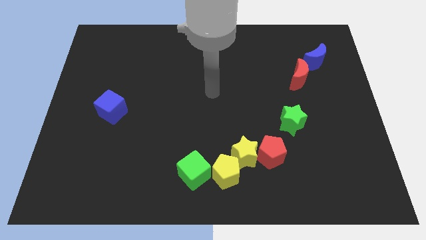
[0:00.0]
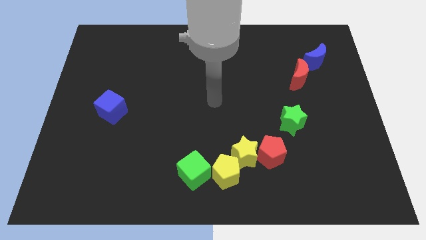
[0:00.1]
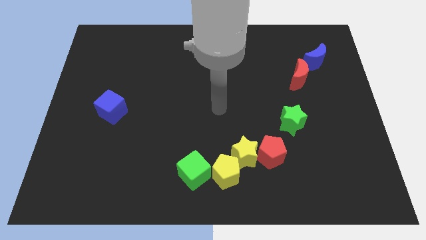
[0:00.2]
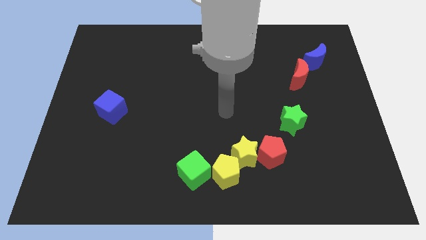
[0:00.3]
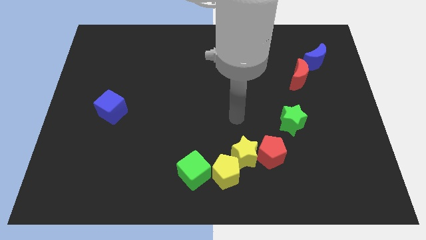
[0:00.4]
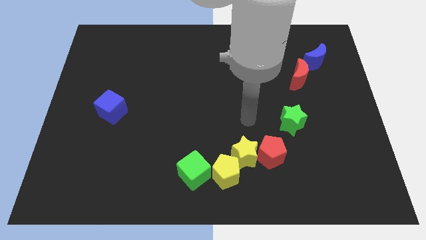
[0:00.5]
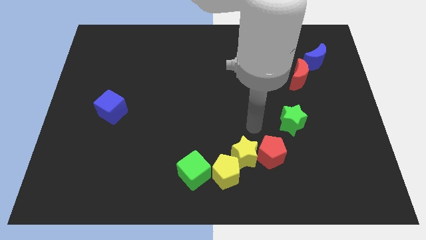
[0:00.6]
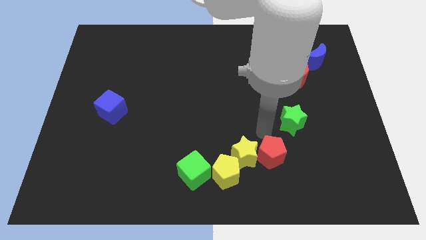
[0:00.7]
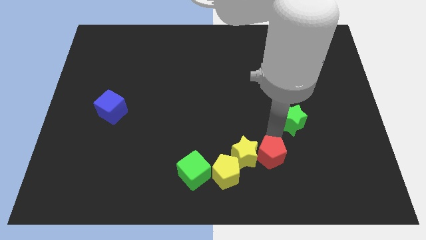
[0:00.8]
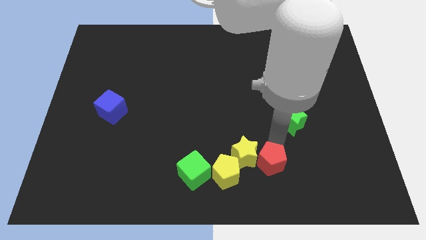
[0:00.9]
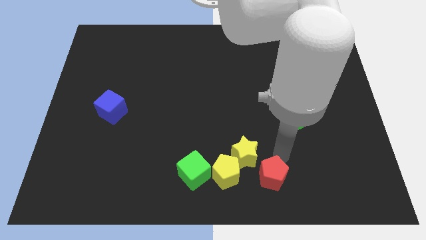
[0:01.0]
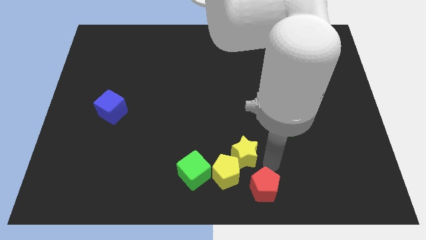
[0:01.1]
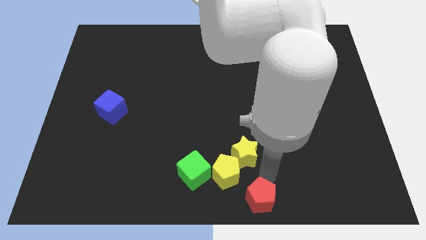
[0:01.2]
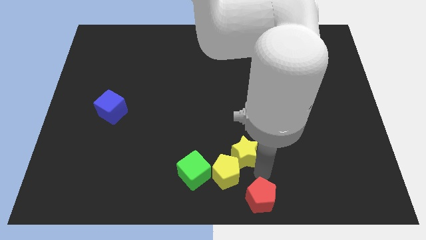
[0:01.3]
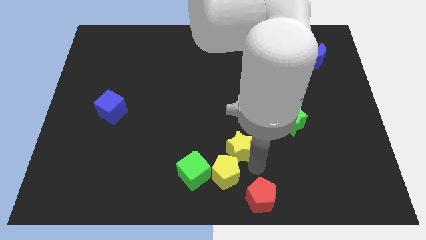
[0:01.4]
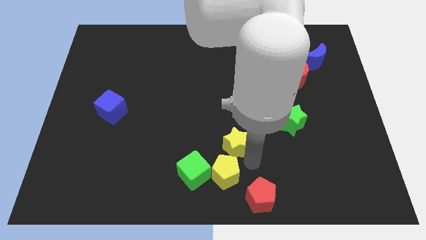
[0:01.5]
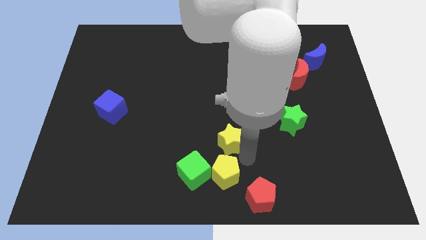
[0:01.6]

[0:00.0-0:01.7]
move the yellow star away from the red pentagon and yellow pentagon

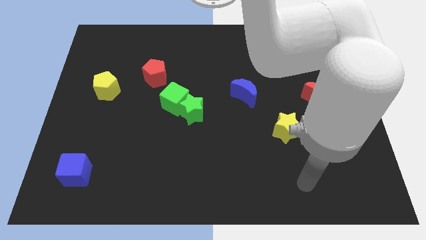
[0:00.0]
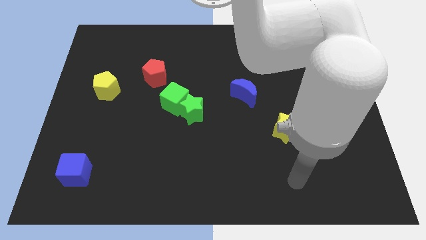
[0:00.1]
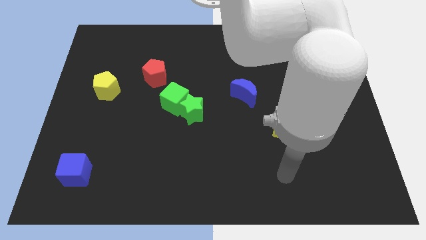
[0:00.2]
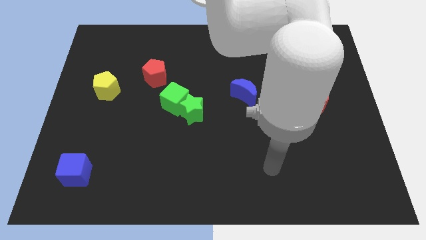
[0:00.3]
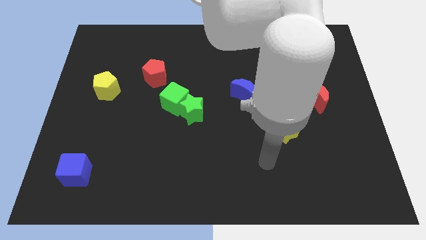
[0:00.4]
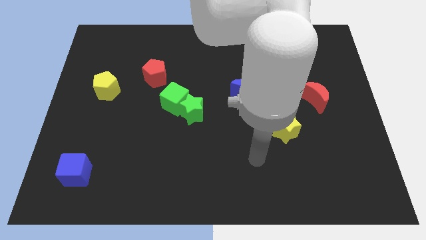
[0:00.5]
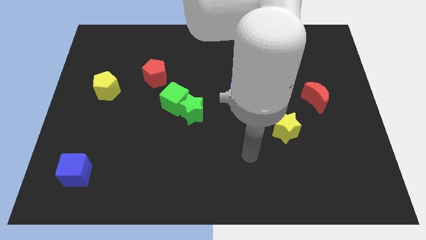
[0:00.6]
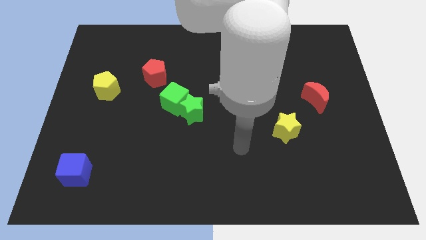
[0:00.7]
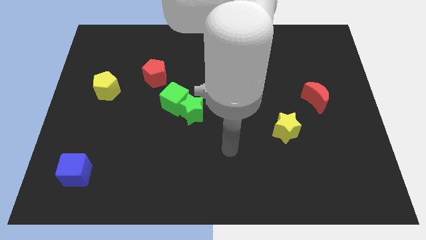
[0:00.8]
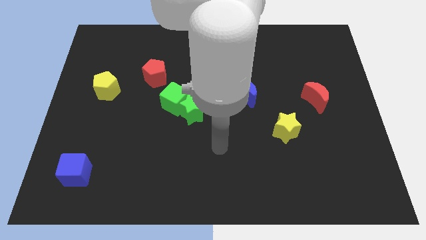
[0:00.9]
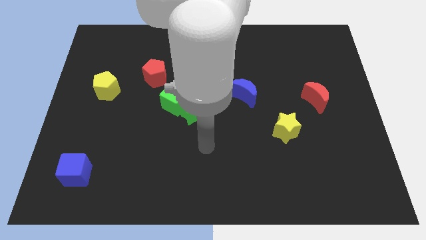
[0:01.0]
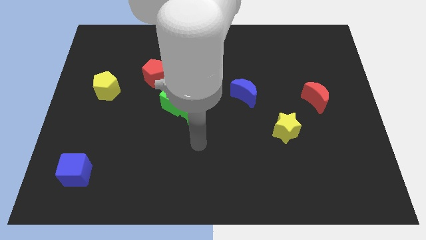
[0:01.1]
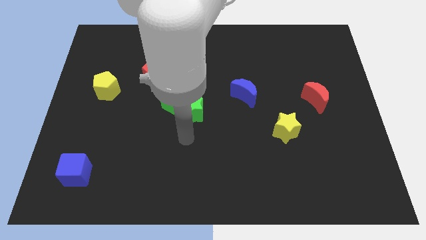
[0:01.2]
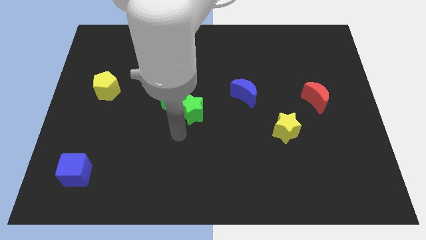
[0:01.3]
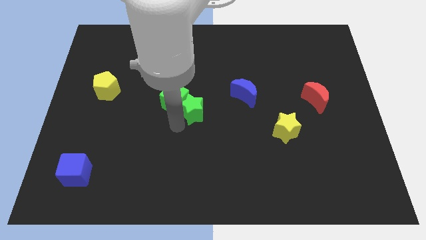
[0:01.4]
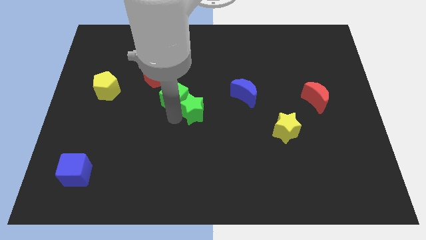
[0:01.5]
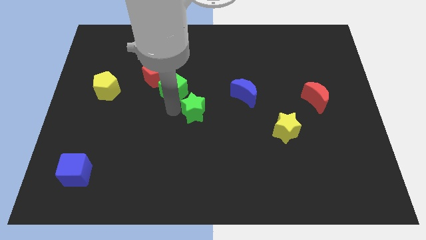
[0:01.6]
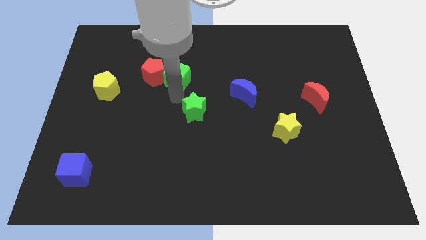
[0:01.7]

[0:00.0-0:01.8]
move the green star away from the green cube

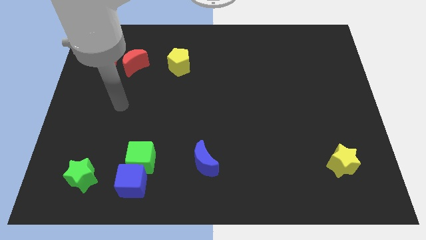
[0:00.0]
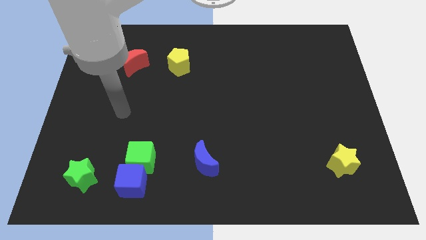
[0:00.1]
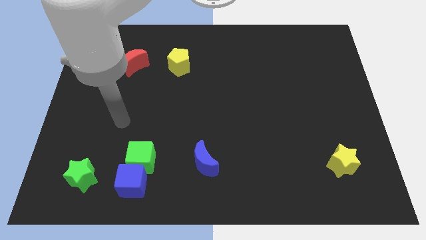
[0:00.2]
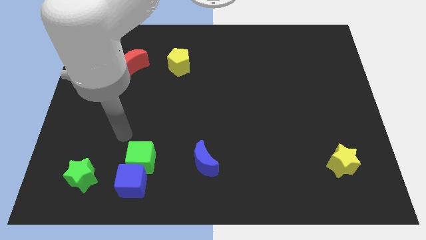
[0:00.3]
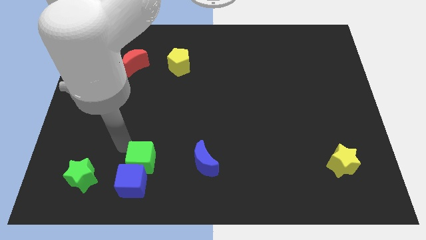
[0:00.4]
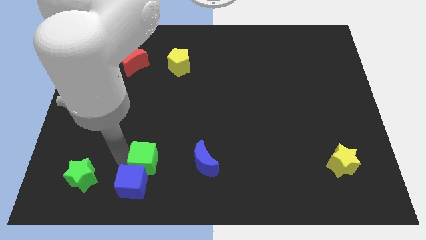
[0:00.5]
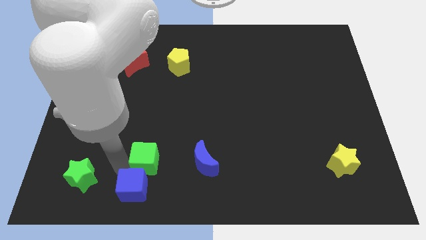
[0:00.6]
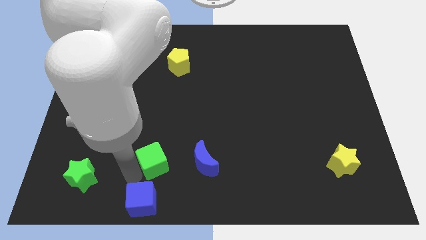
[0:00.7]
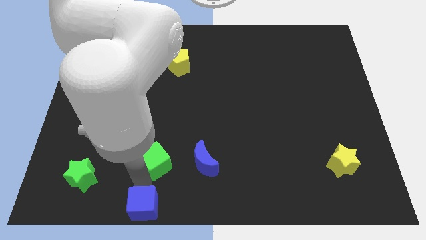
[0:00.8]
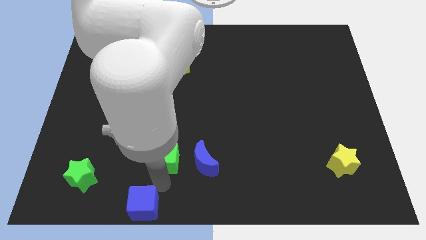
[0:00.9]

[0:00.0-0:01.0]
pull the green cube apart from the blue cube

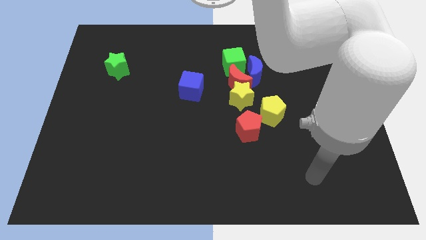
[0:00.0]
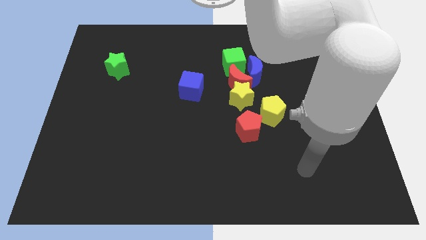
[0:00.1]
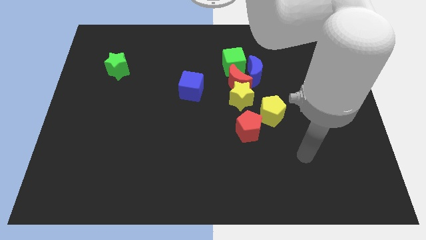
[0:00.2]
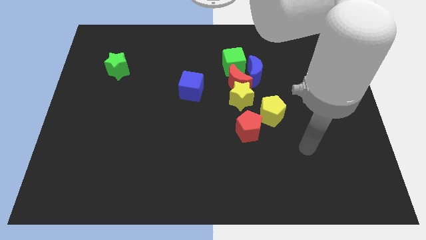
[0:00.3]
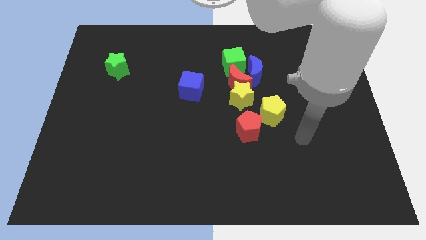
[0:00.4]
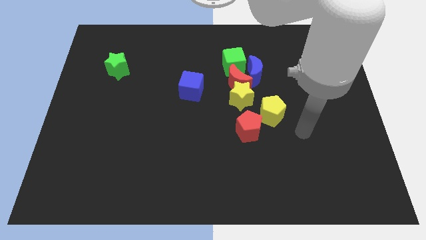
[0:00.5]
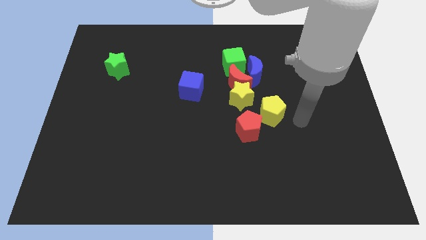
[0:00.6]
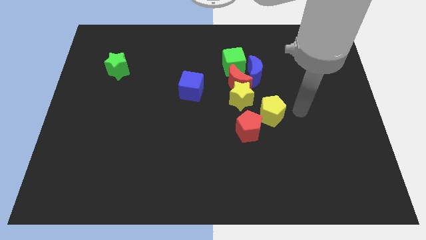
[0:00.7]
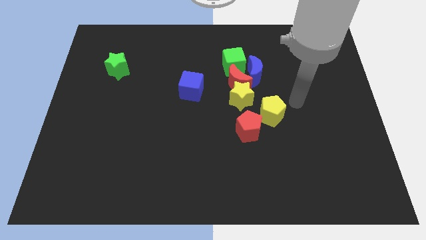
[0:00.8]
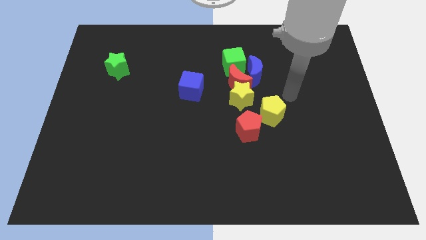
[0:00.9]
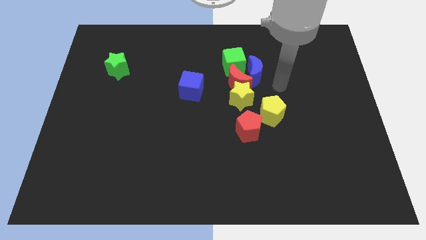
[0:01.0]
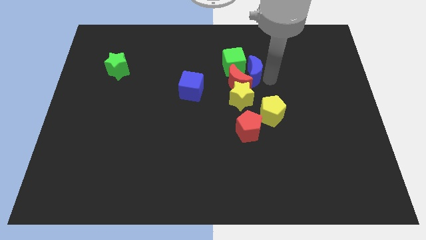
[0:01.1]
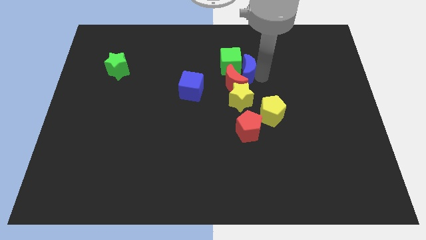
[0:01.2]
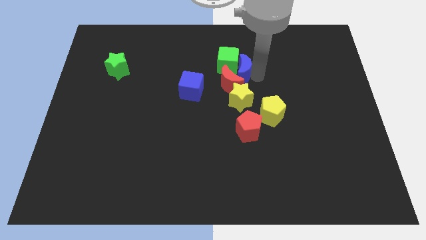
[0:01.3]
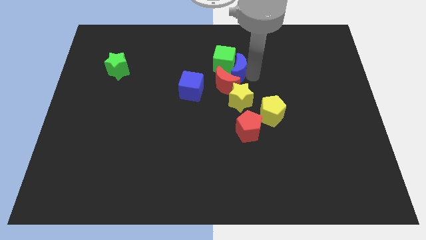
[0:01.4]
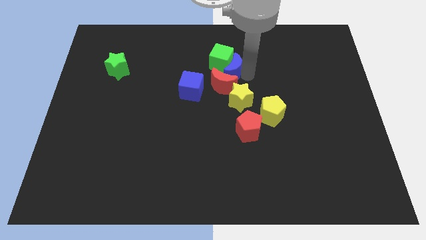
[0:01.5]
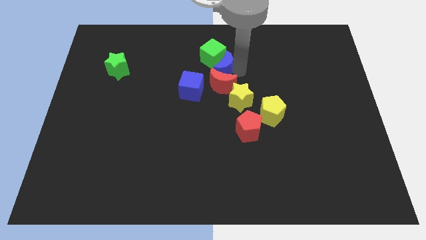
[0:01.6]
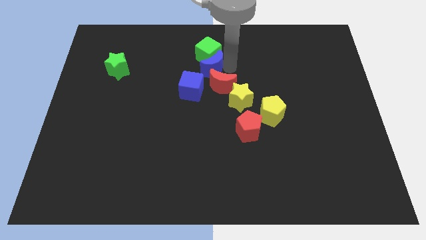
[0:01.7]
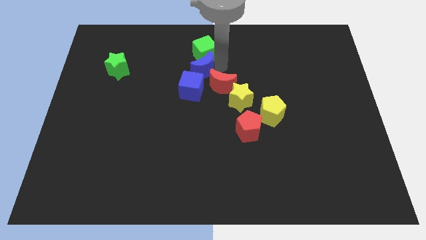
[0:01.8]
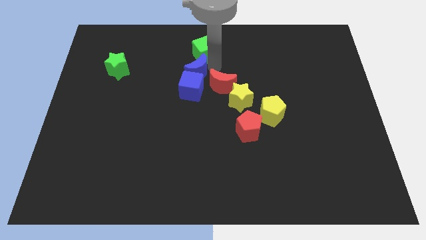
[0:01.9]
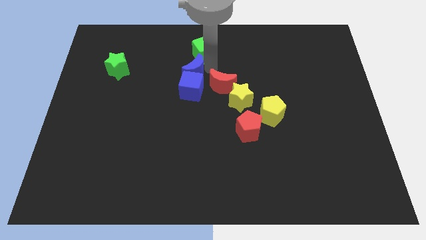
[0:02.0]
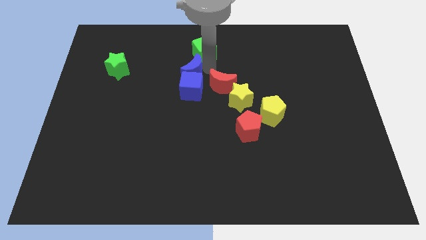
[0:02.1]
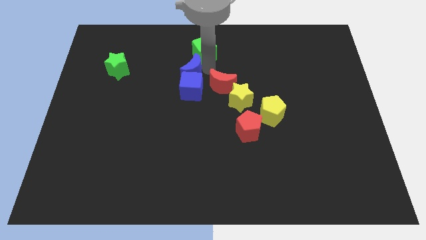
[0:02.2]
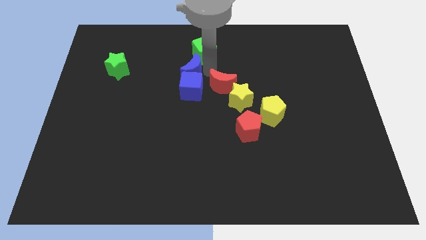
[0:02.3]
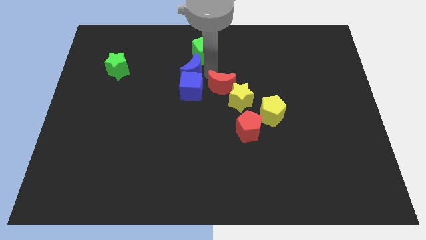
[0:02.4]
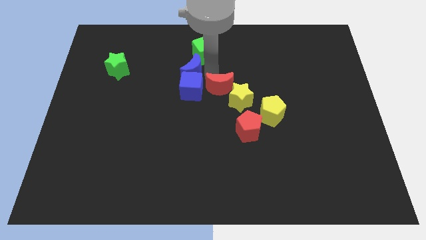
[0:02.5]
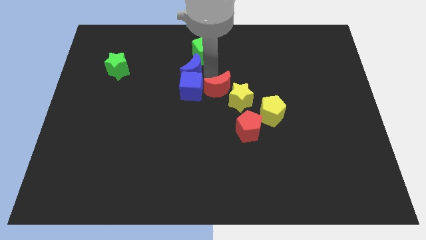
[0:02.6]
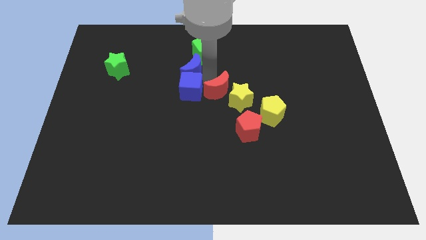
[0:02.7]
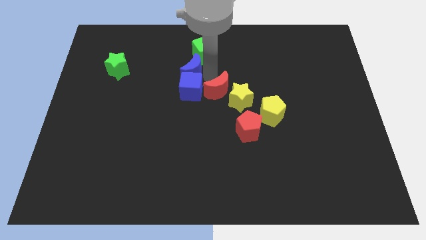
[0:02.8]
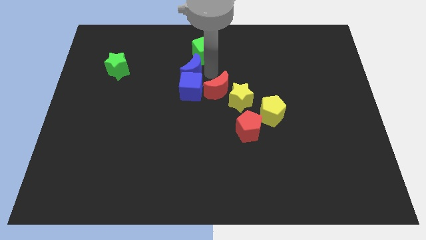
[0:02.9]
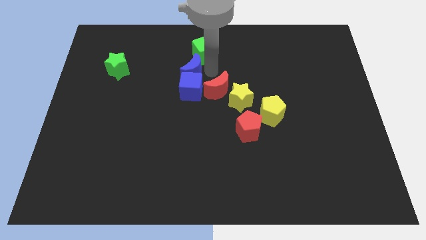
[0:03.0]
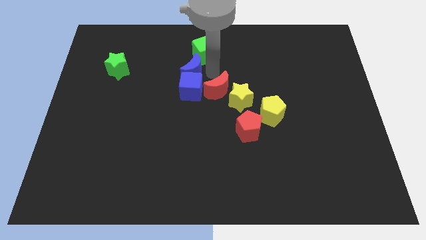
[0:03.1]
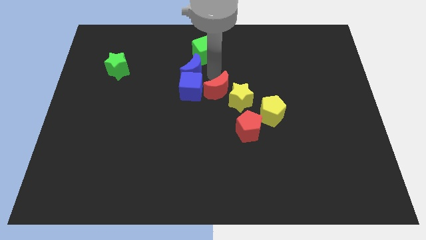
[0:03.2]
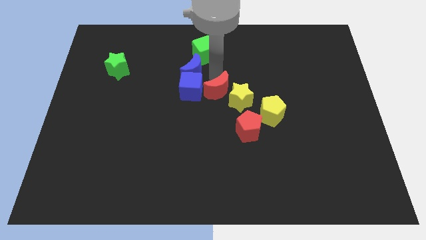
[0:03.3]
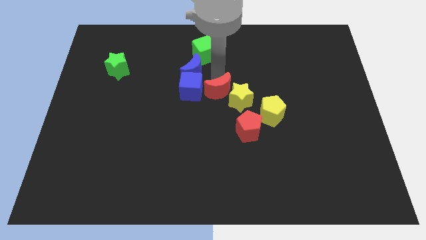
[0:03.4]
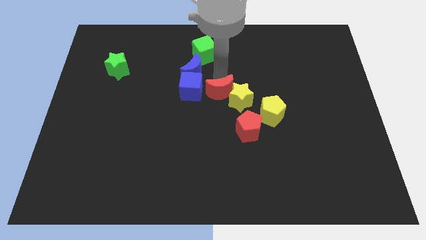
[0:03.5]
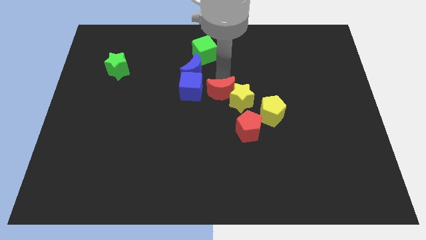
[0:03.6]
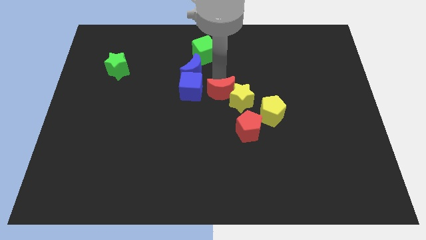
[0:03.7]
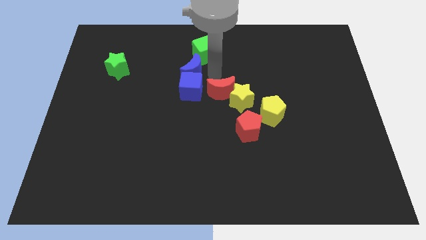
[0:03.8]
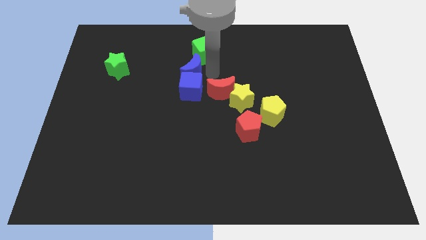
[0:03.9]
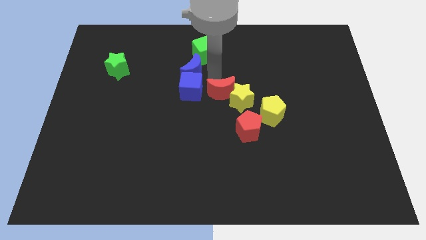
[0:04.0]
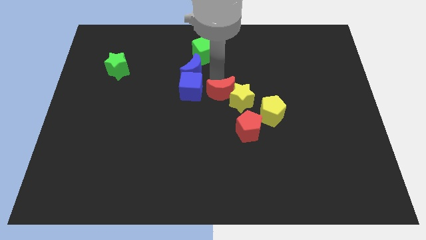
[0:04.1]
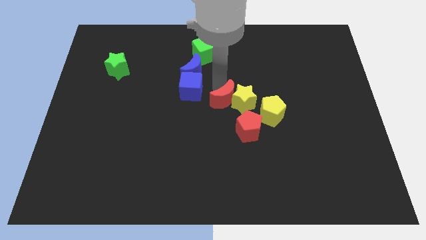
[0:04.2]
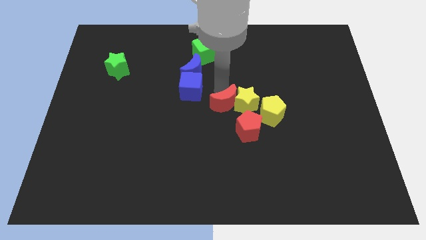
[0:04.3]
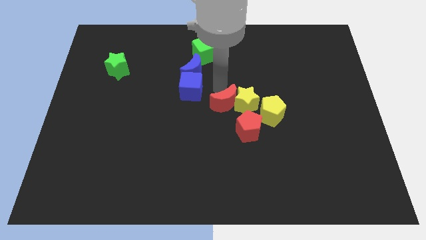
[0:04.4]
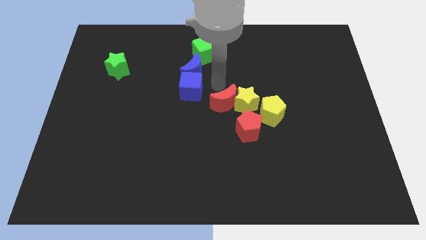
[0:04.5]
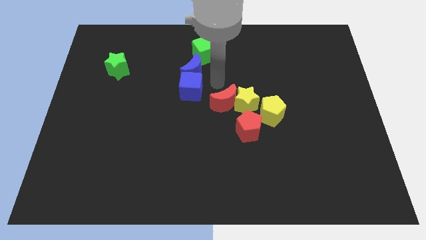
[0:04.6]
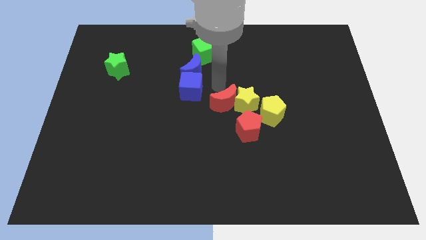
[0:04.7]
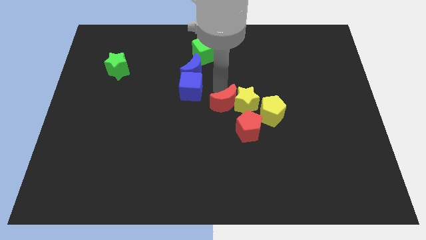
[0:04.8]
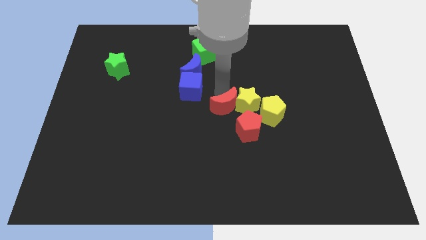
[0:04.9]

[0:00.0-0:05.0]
separate the red moon from the yellow star, blue moon, and green cube
